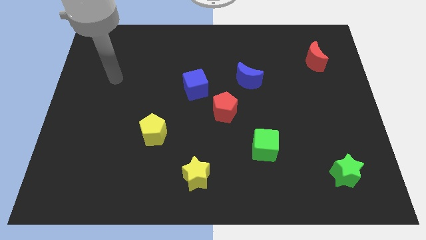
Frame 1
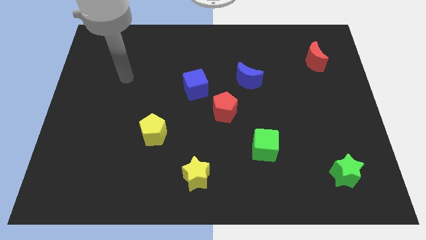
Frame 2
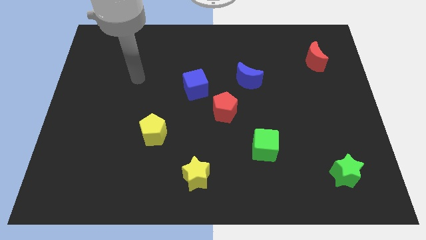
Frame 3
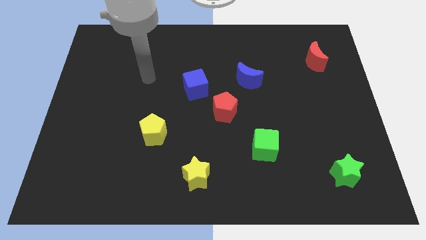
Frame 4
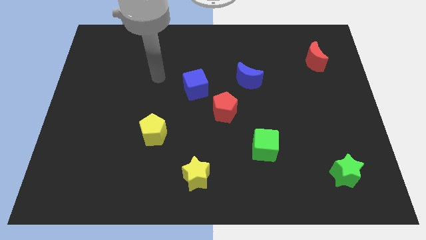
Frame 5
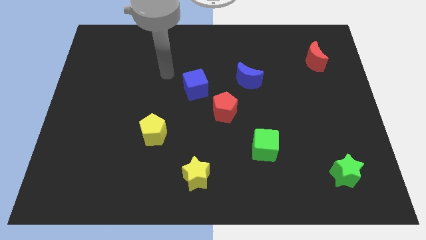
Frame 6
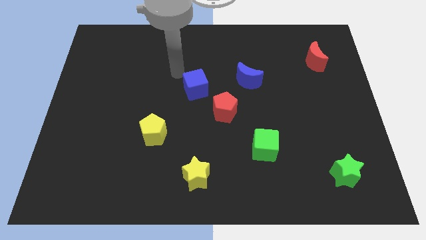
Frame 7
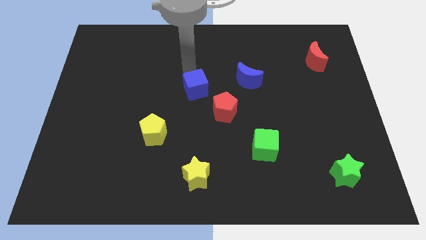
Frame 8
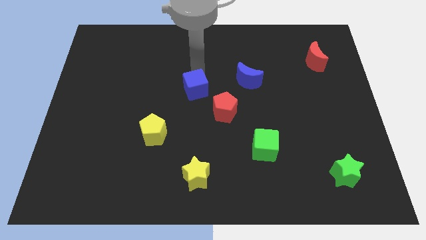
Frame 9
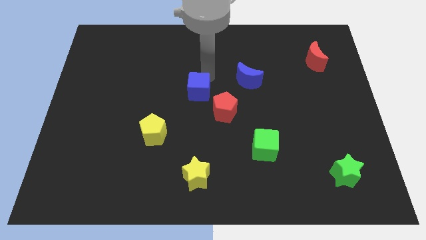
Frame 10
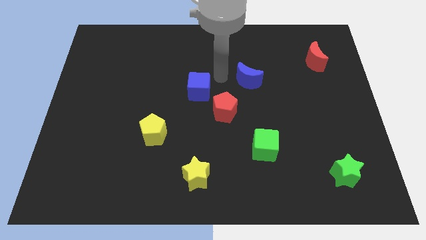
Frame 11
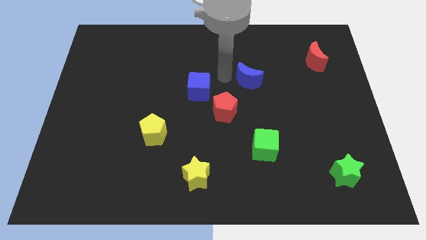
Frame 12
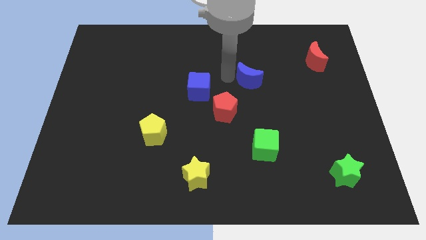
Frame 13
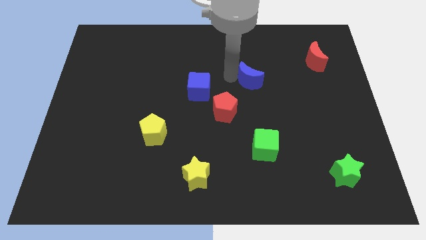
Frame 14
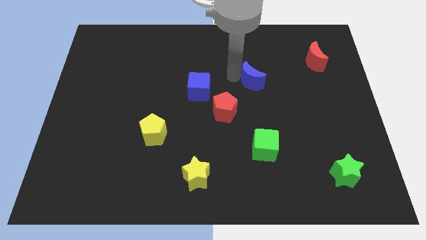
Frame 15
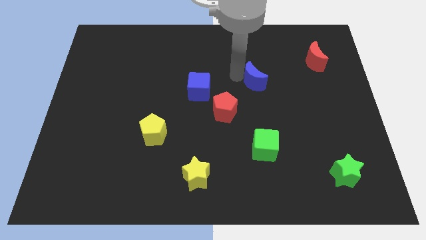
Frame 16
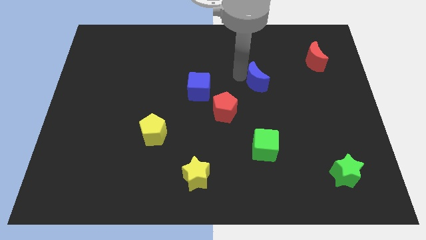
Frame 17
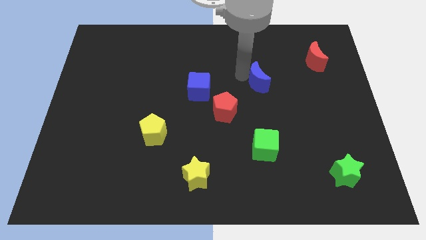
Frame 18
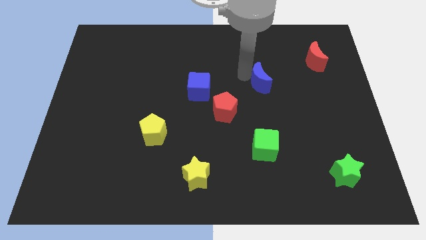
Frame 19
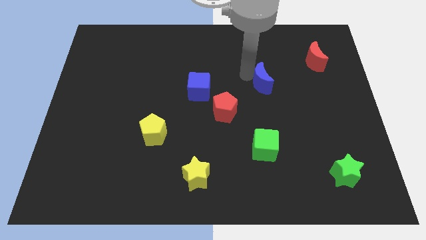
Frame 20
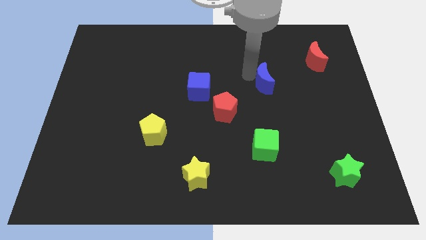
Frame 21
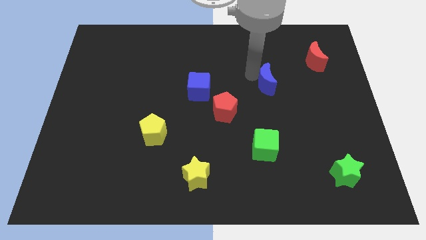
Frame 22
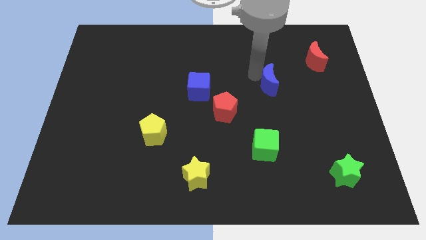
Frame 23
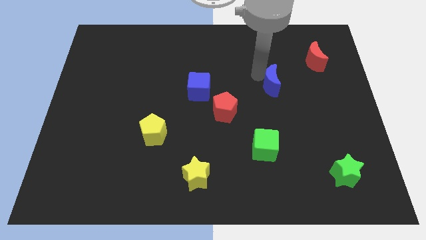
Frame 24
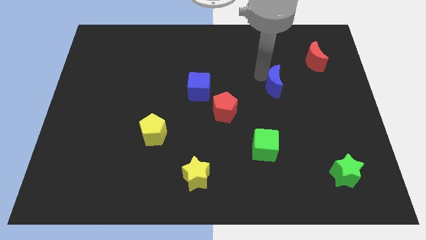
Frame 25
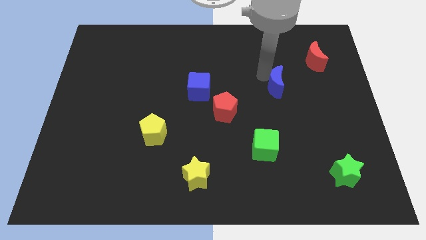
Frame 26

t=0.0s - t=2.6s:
slide the blue moon right a little bit

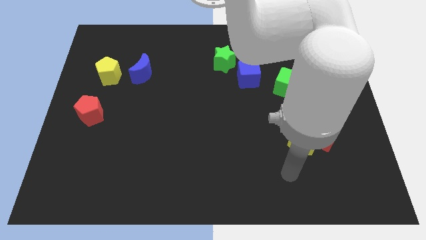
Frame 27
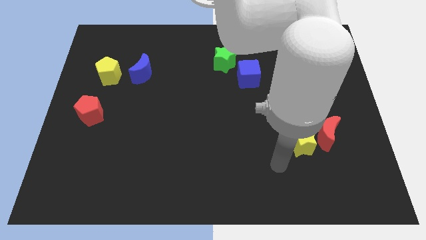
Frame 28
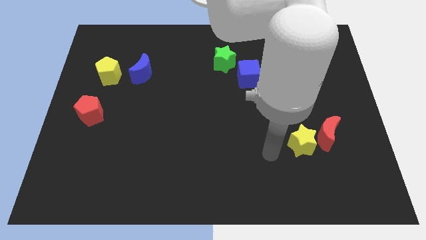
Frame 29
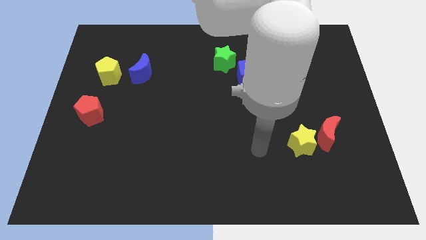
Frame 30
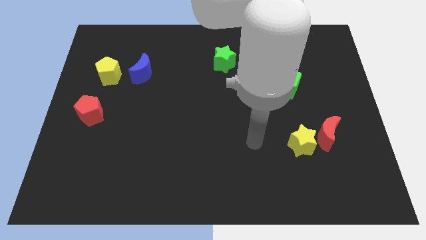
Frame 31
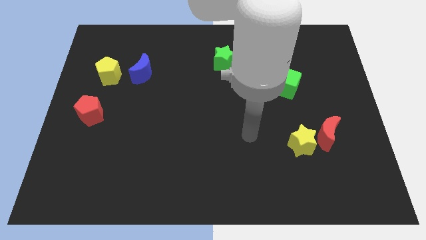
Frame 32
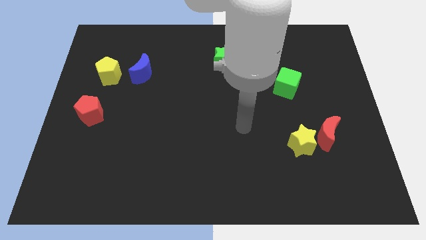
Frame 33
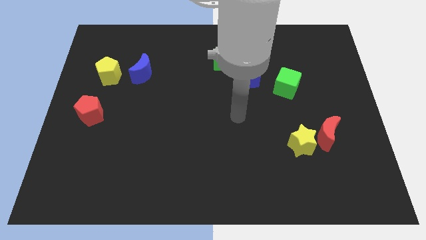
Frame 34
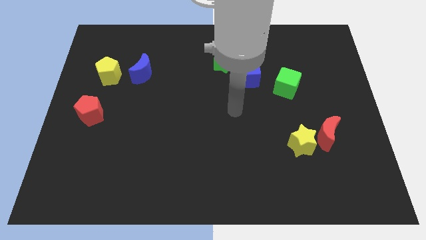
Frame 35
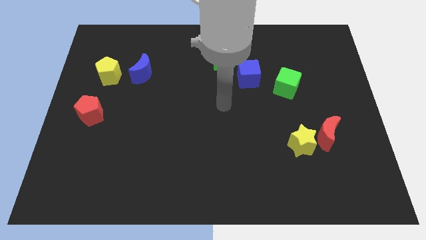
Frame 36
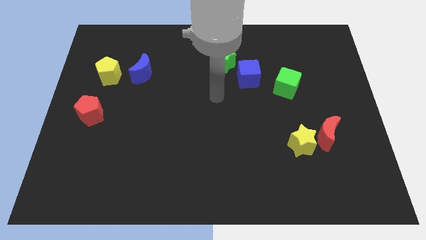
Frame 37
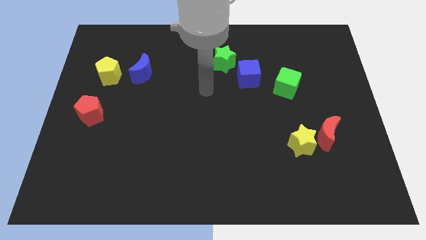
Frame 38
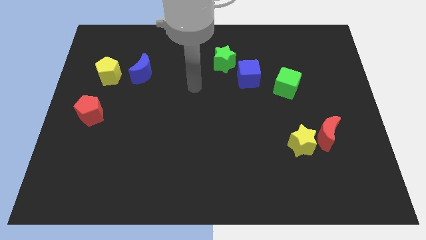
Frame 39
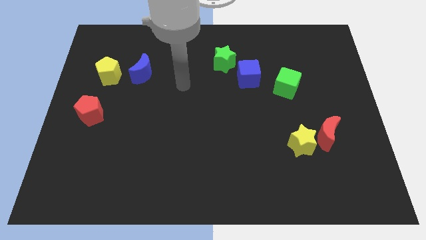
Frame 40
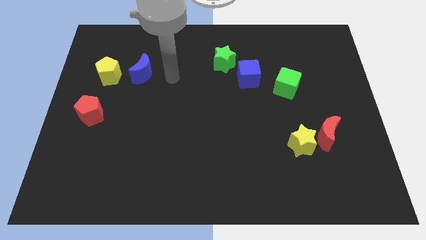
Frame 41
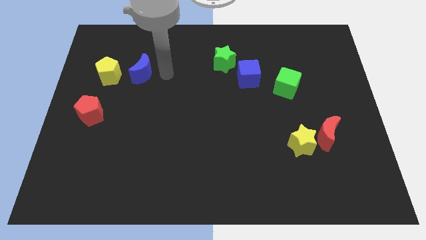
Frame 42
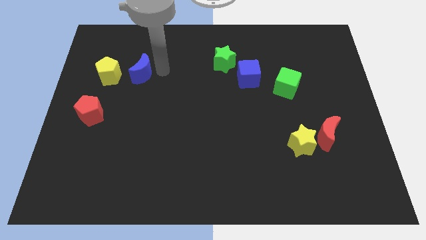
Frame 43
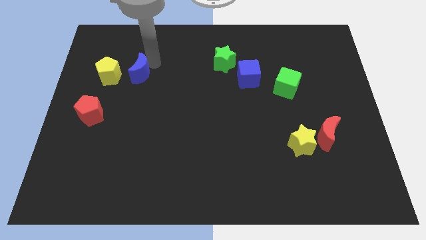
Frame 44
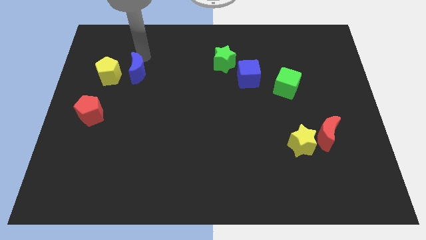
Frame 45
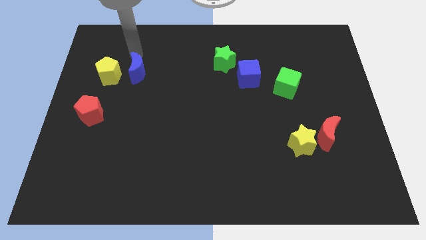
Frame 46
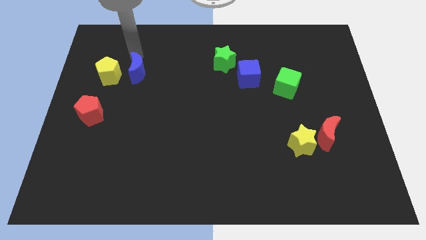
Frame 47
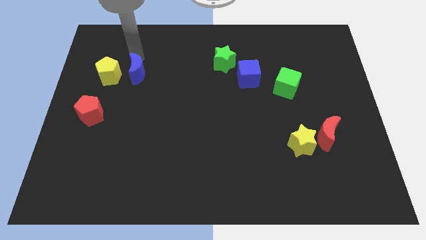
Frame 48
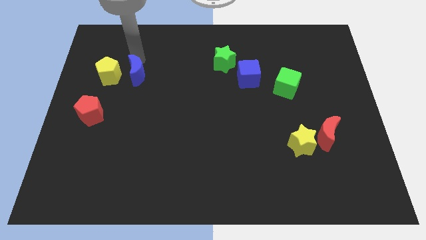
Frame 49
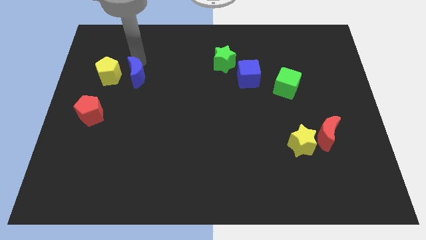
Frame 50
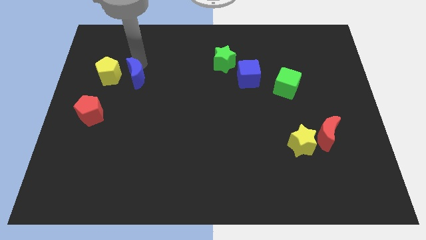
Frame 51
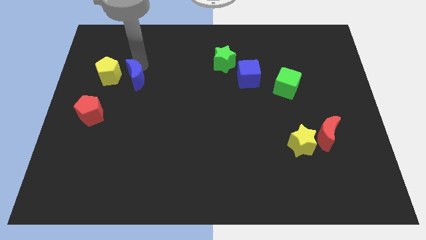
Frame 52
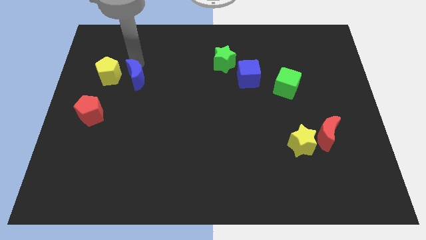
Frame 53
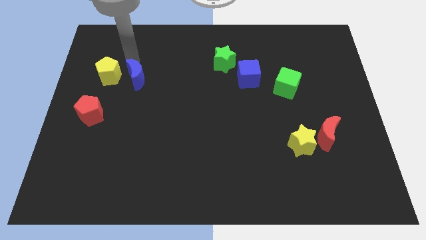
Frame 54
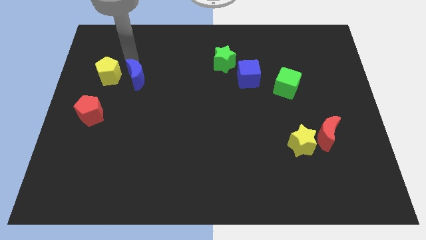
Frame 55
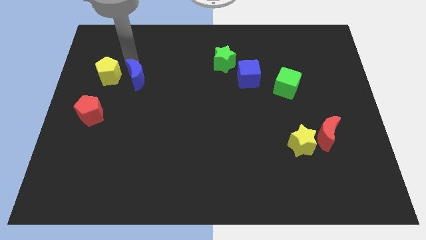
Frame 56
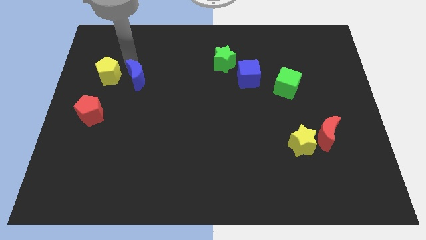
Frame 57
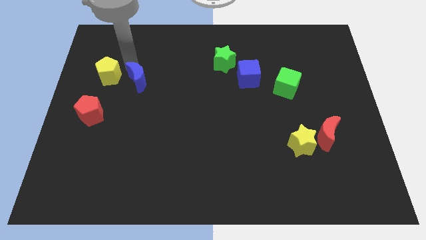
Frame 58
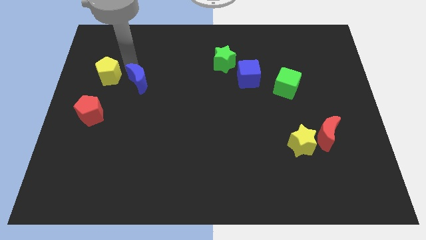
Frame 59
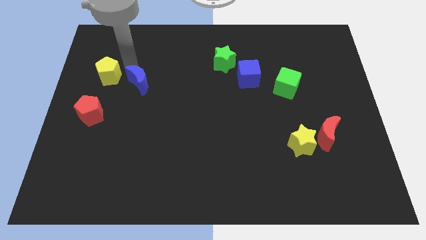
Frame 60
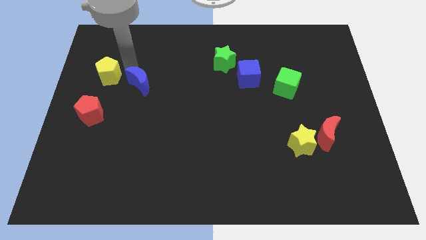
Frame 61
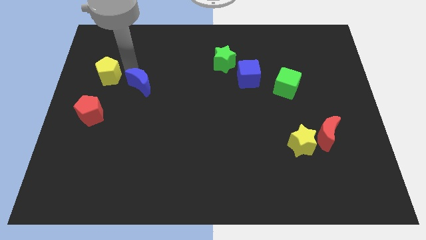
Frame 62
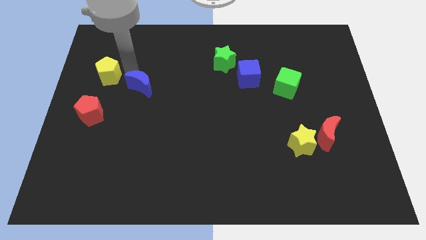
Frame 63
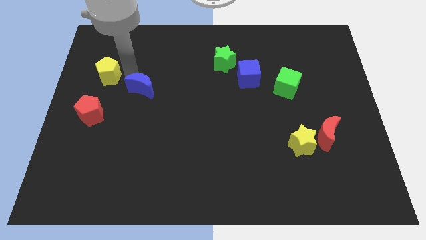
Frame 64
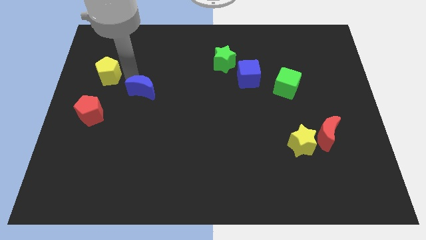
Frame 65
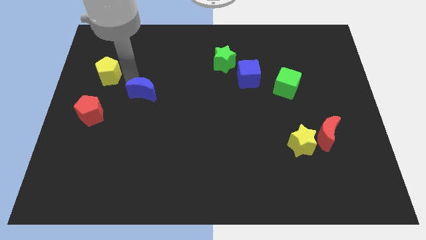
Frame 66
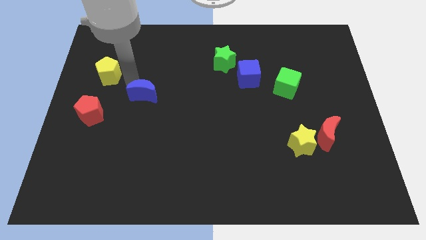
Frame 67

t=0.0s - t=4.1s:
slightly move the blue moon downwards

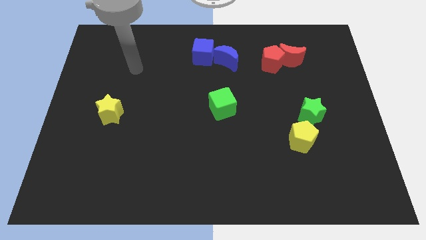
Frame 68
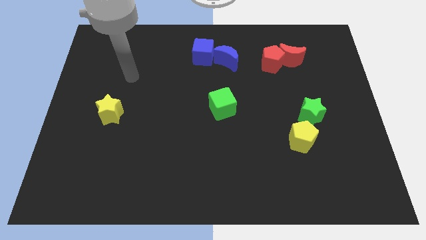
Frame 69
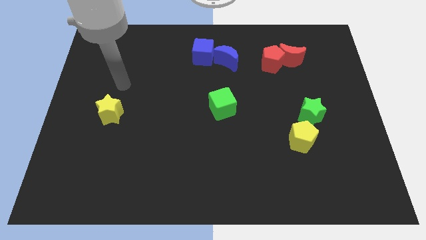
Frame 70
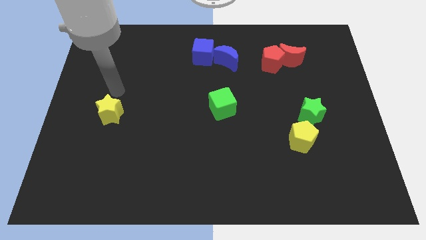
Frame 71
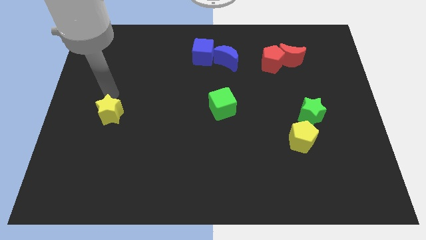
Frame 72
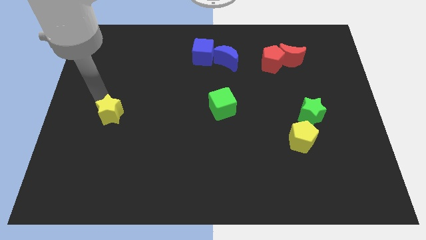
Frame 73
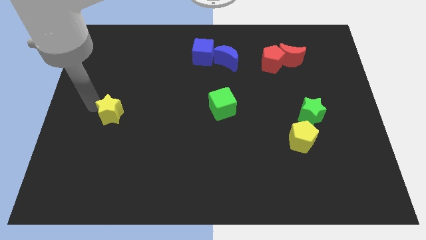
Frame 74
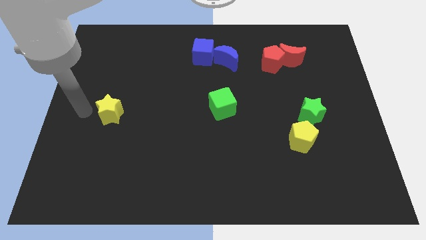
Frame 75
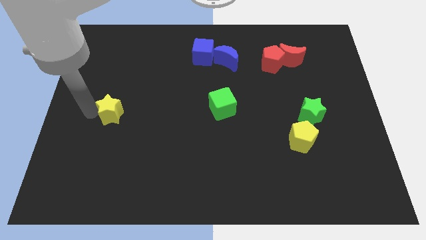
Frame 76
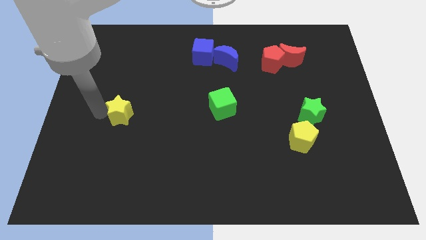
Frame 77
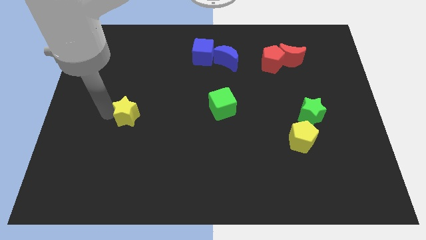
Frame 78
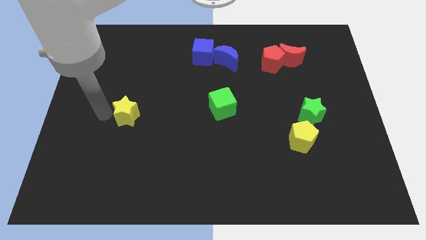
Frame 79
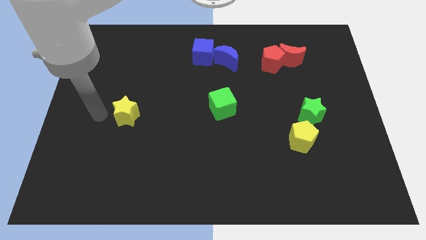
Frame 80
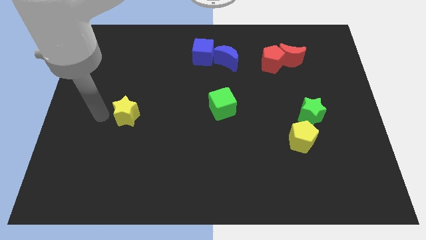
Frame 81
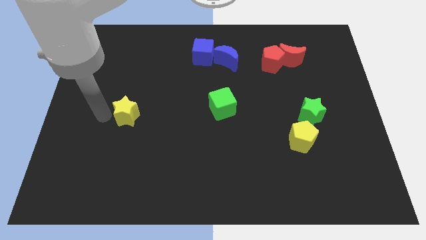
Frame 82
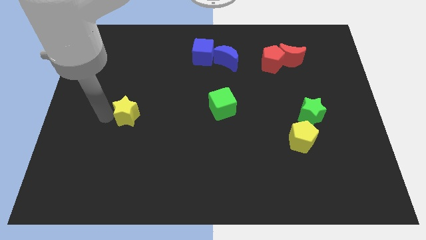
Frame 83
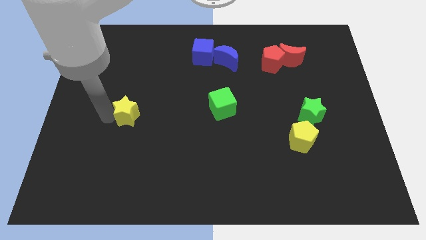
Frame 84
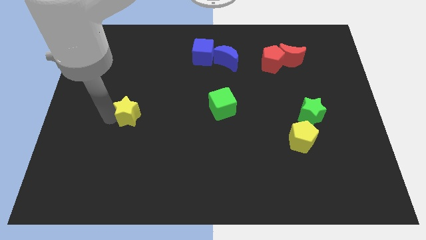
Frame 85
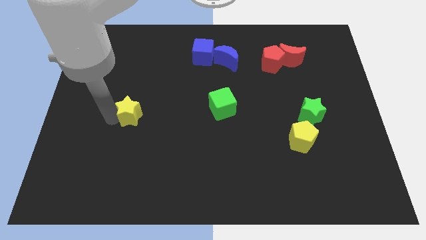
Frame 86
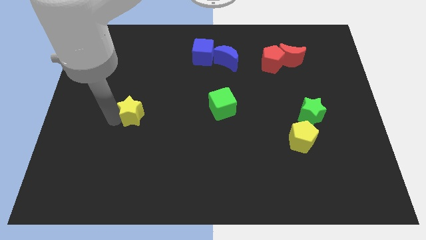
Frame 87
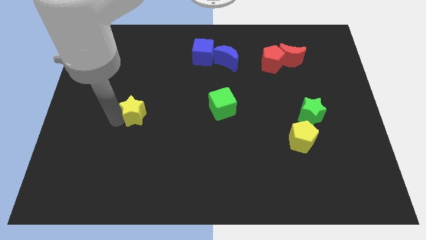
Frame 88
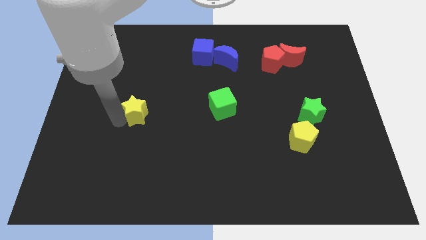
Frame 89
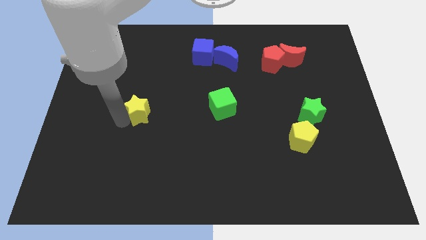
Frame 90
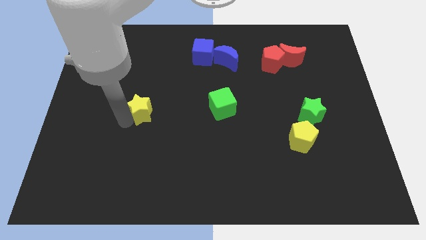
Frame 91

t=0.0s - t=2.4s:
push the yellow star to the right slightly
